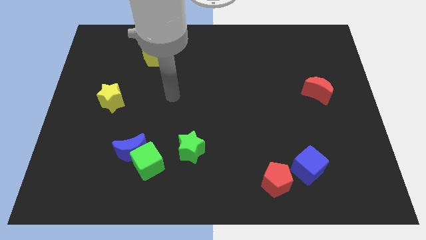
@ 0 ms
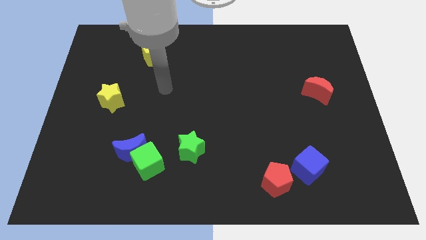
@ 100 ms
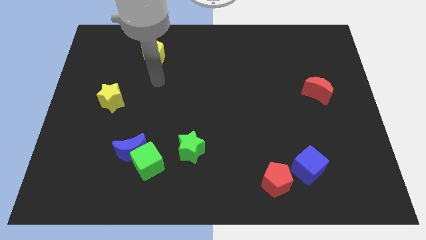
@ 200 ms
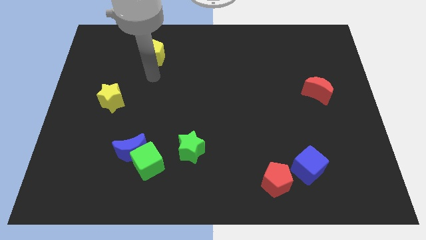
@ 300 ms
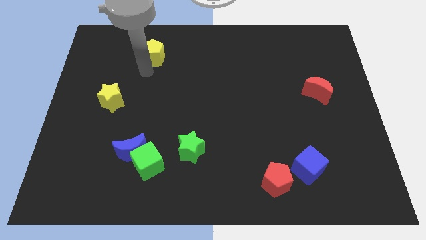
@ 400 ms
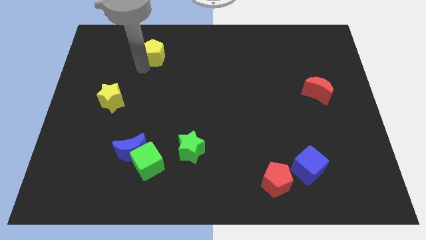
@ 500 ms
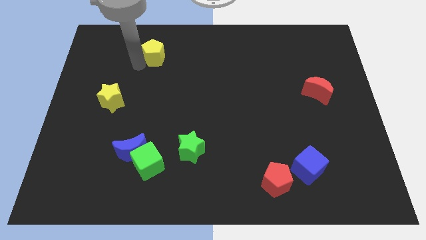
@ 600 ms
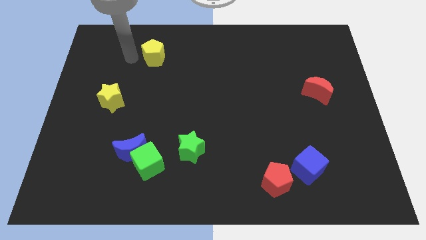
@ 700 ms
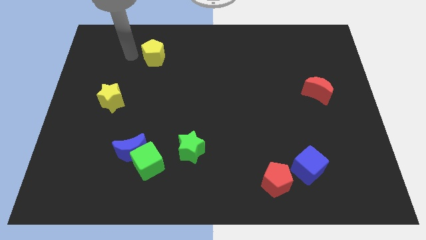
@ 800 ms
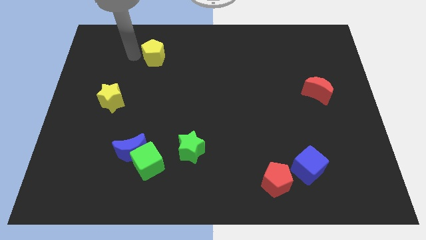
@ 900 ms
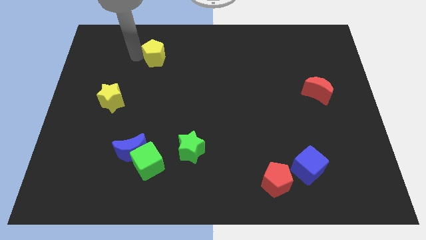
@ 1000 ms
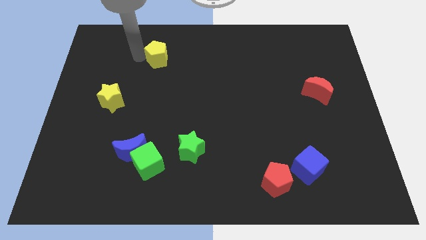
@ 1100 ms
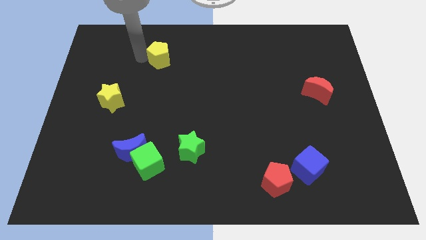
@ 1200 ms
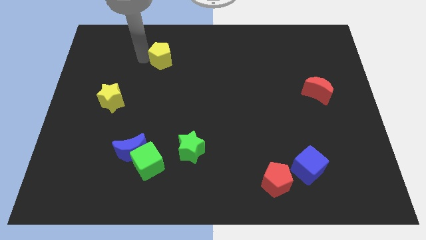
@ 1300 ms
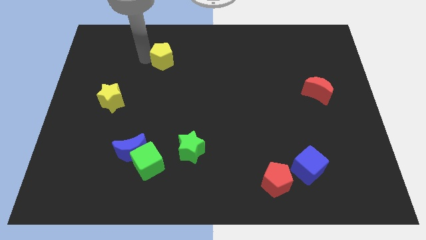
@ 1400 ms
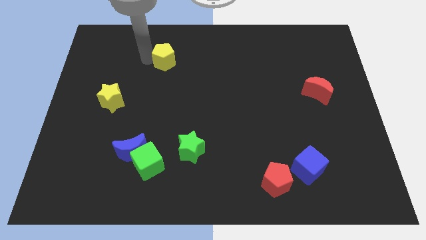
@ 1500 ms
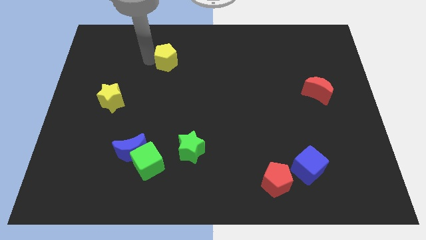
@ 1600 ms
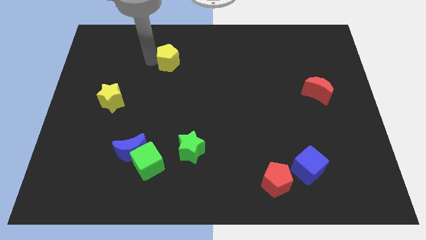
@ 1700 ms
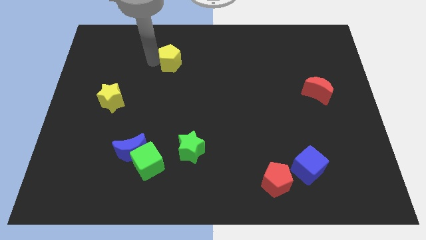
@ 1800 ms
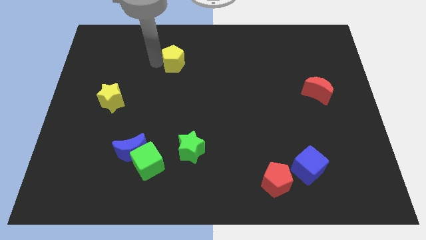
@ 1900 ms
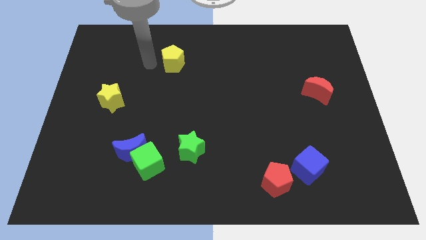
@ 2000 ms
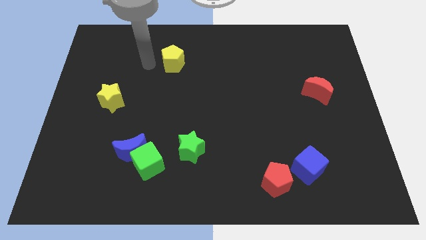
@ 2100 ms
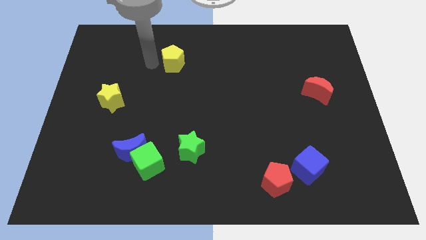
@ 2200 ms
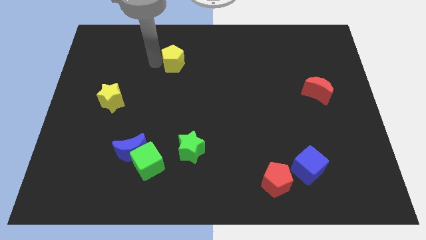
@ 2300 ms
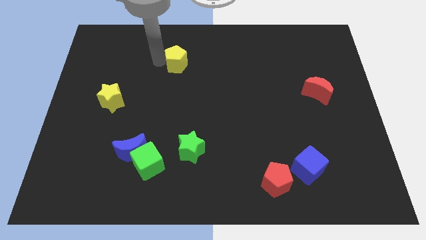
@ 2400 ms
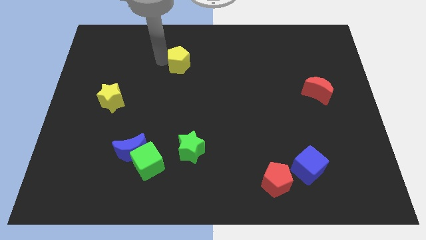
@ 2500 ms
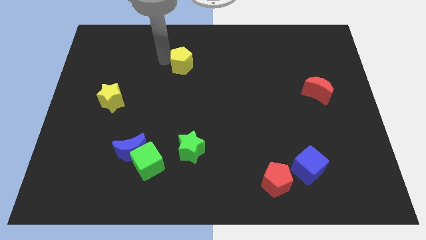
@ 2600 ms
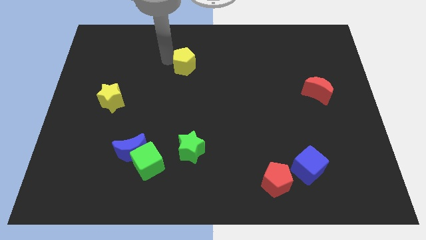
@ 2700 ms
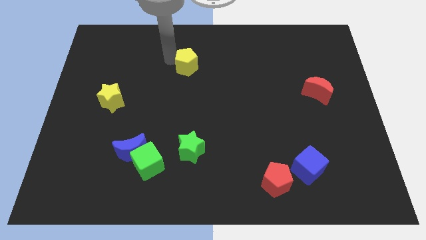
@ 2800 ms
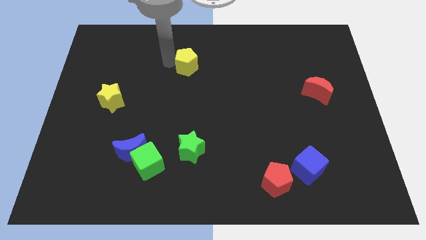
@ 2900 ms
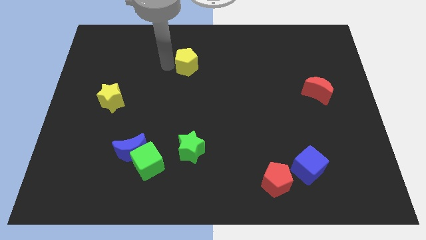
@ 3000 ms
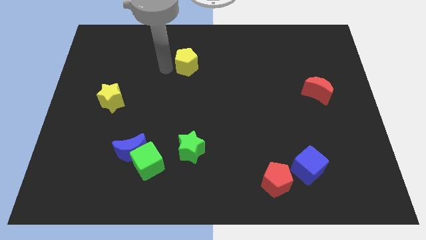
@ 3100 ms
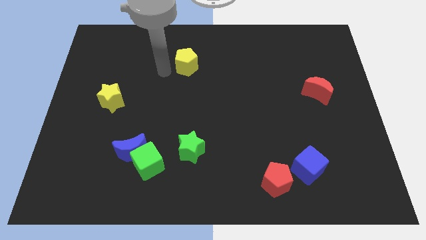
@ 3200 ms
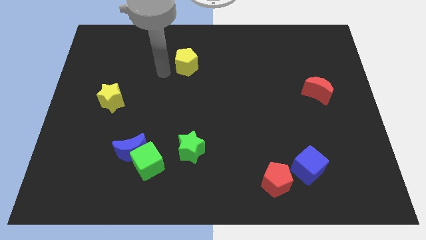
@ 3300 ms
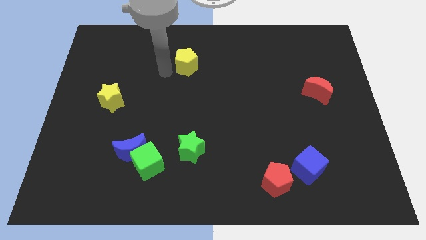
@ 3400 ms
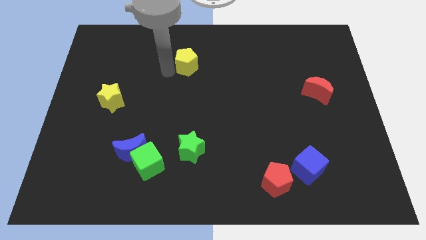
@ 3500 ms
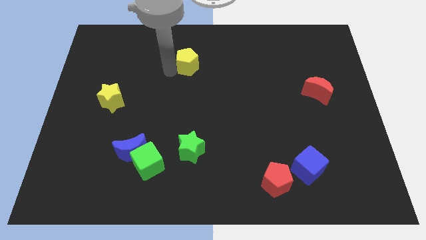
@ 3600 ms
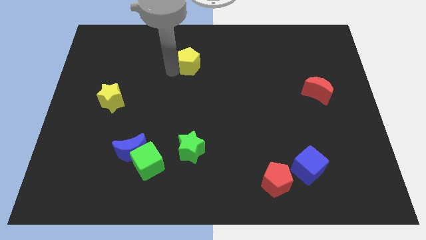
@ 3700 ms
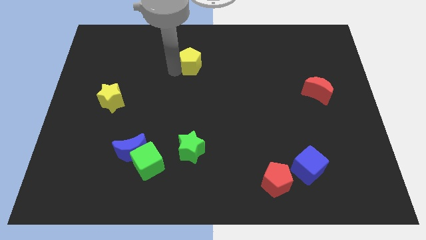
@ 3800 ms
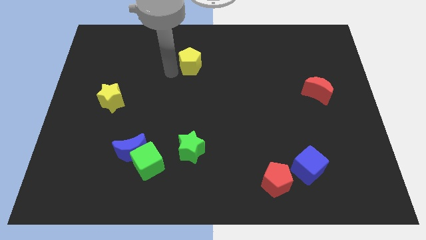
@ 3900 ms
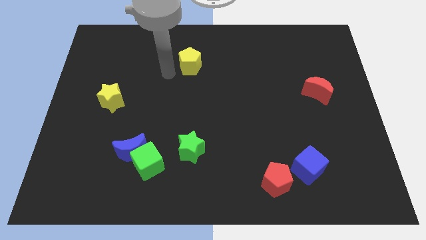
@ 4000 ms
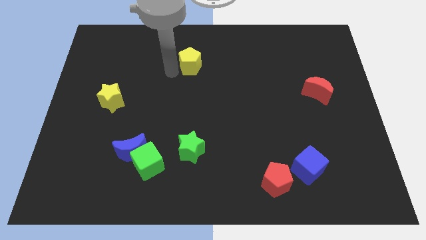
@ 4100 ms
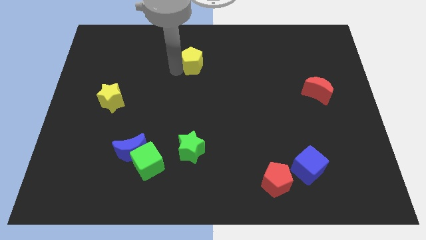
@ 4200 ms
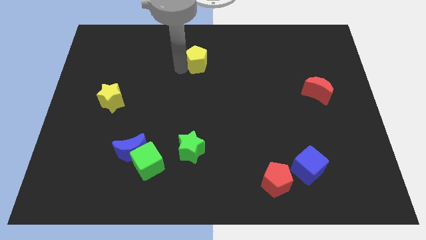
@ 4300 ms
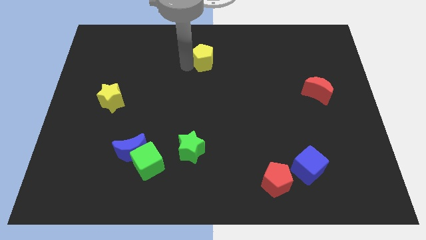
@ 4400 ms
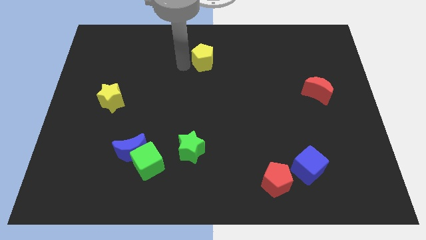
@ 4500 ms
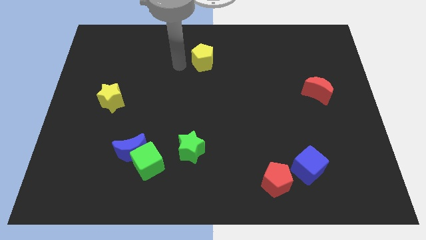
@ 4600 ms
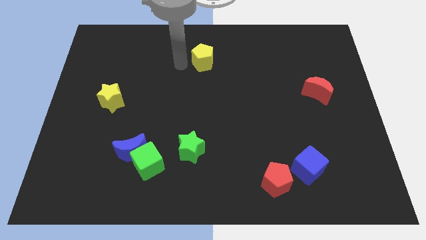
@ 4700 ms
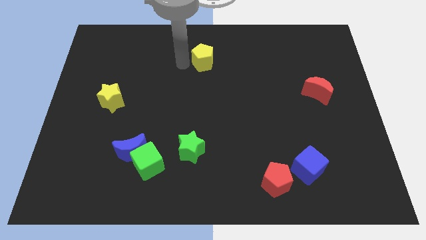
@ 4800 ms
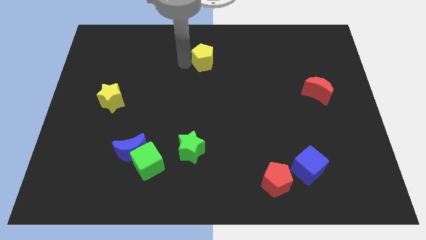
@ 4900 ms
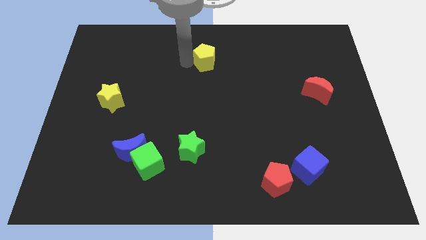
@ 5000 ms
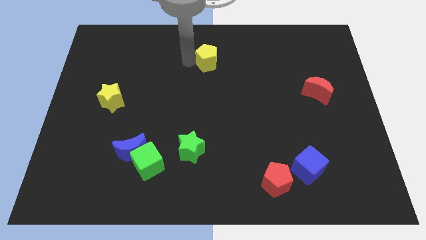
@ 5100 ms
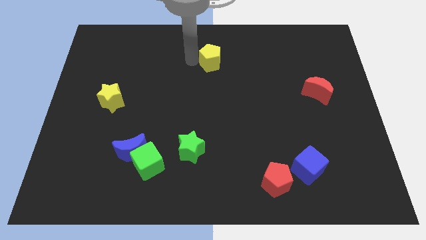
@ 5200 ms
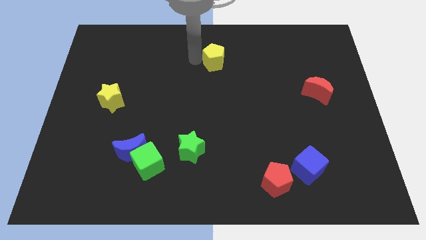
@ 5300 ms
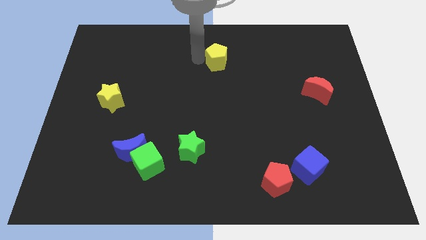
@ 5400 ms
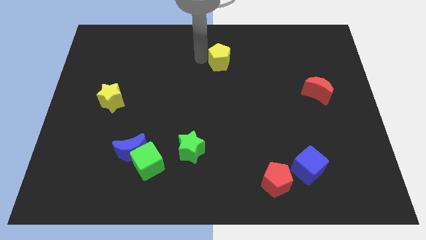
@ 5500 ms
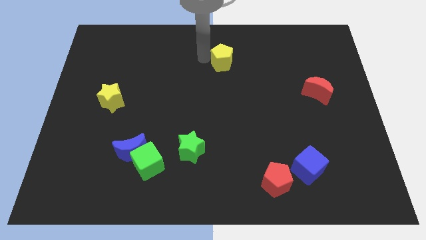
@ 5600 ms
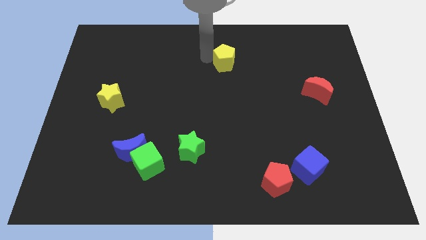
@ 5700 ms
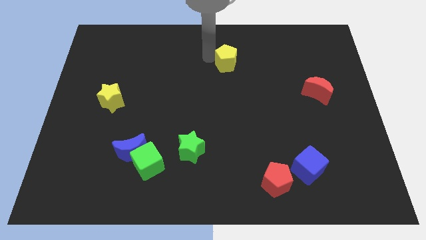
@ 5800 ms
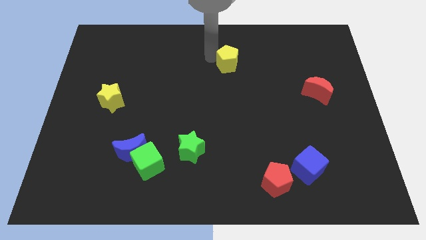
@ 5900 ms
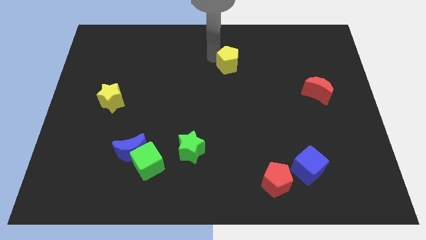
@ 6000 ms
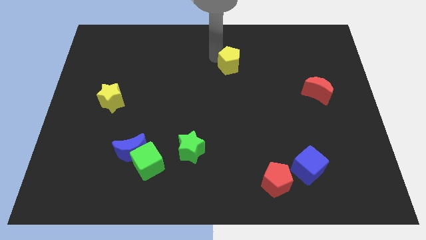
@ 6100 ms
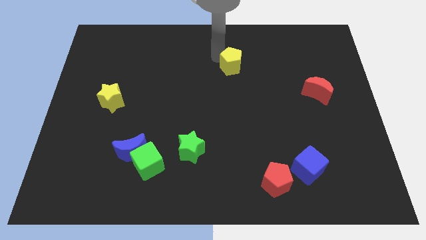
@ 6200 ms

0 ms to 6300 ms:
move the yellow pentagon right

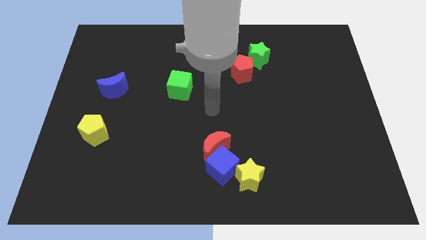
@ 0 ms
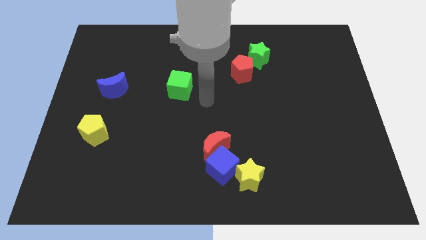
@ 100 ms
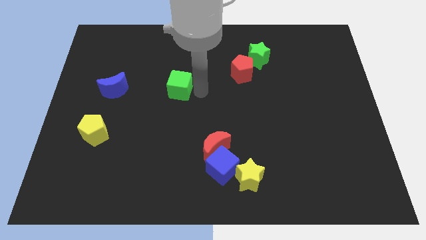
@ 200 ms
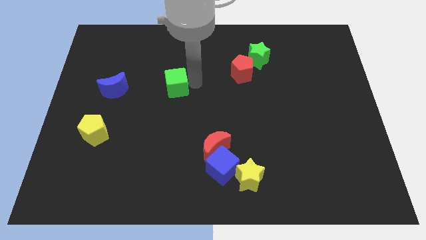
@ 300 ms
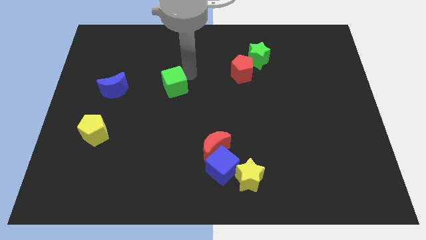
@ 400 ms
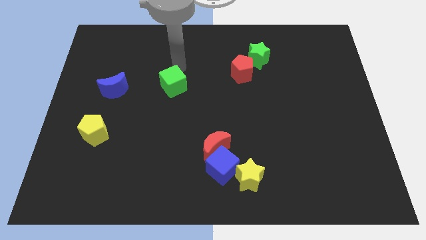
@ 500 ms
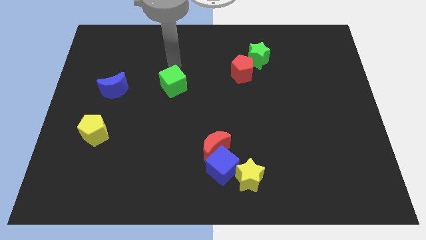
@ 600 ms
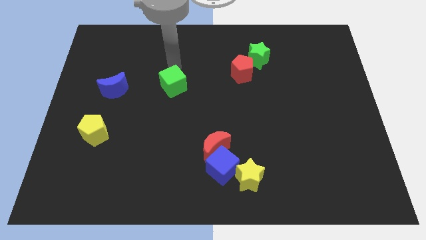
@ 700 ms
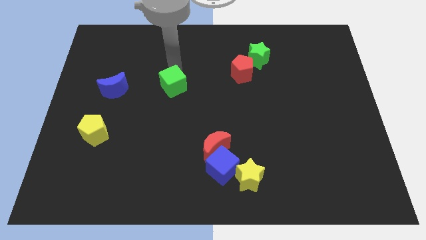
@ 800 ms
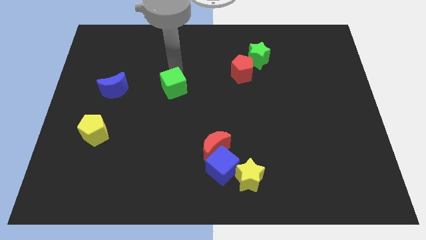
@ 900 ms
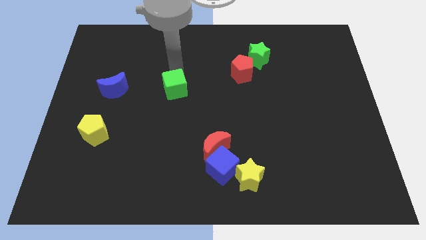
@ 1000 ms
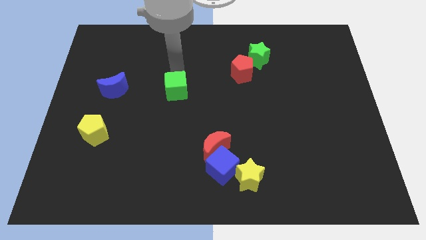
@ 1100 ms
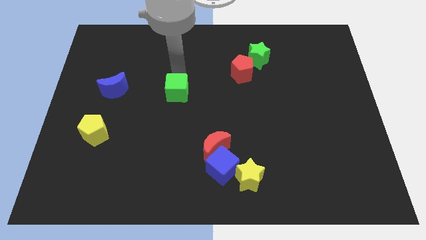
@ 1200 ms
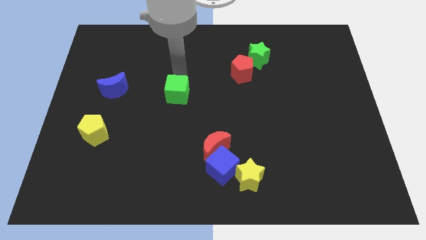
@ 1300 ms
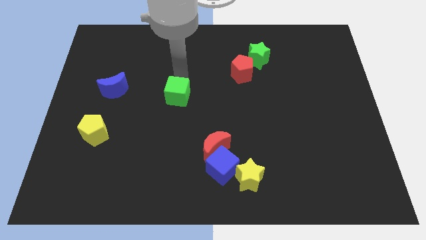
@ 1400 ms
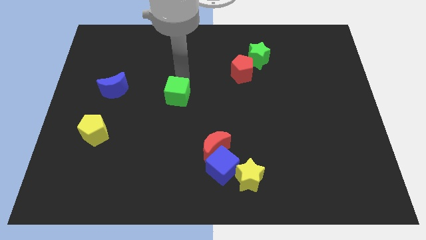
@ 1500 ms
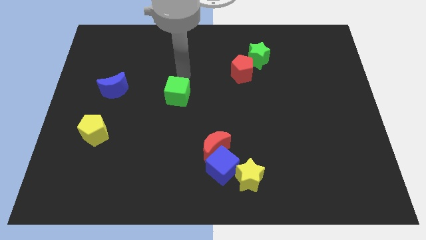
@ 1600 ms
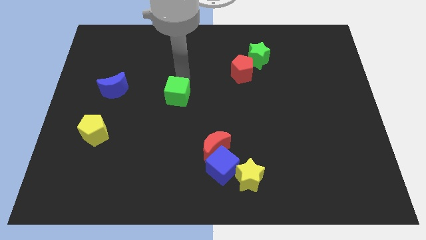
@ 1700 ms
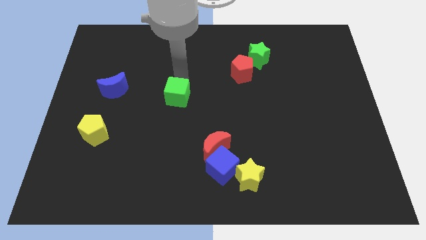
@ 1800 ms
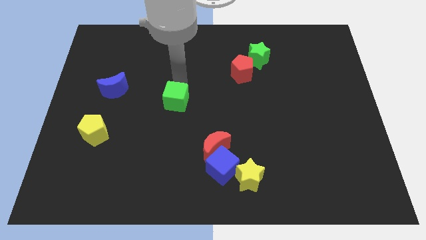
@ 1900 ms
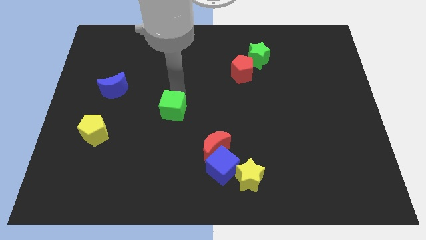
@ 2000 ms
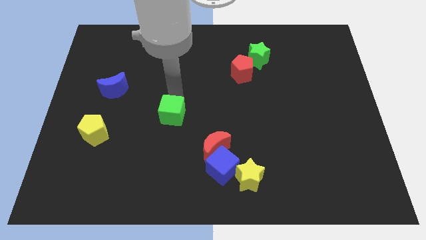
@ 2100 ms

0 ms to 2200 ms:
slightly move the green cube downwards
